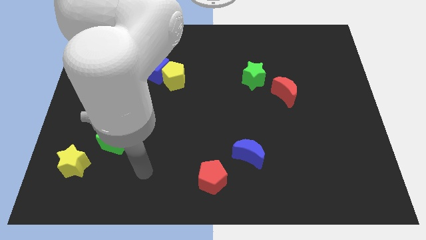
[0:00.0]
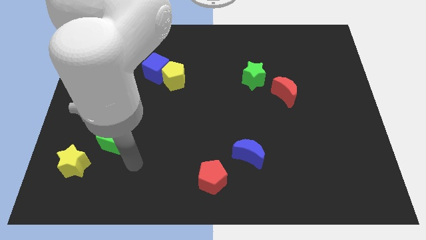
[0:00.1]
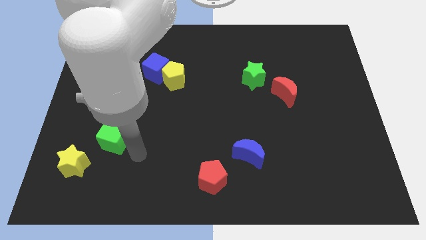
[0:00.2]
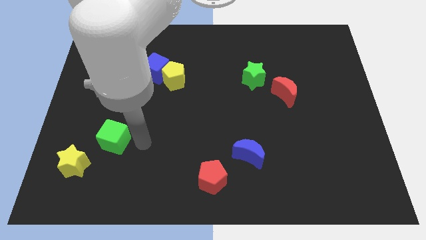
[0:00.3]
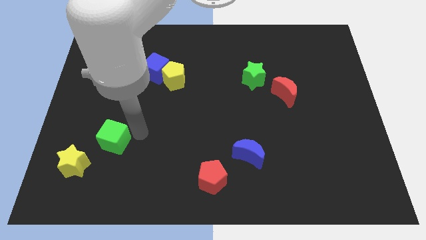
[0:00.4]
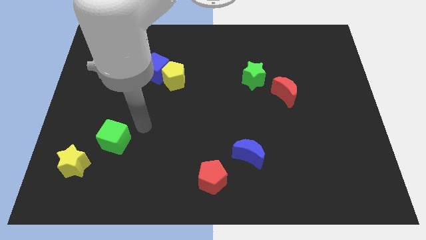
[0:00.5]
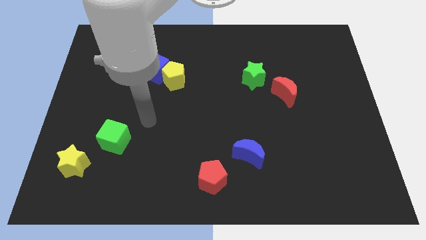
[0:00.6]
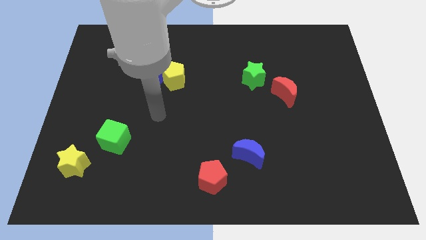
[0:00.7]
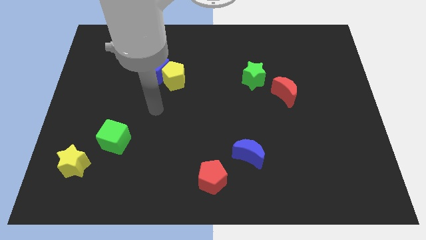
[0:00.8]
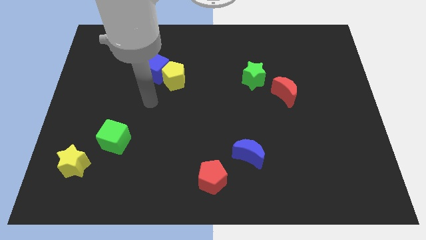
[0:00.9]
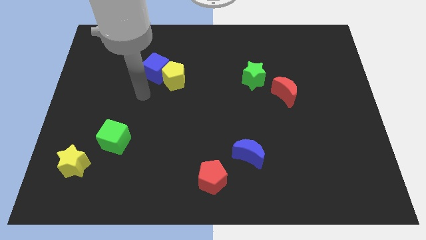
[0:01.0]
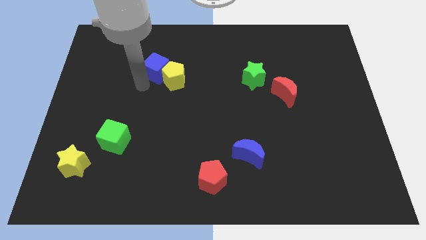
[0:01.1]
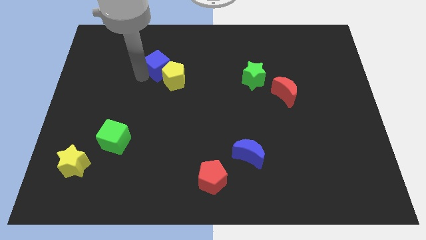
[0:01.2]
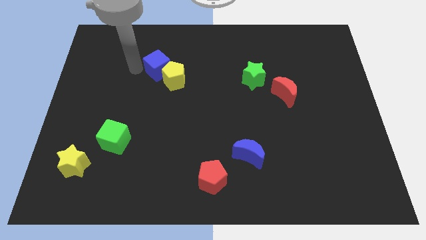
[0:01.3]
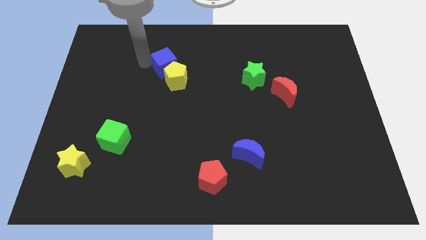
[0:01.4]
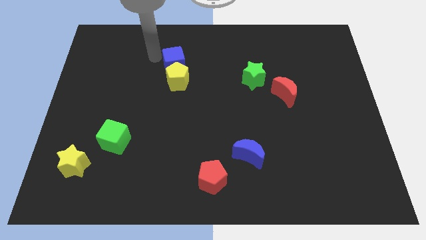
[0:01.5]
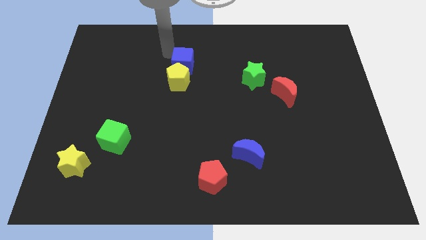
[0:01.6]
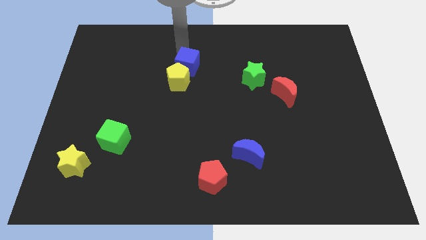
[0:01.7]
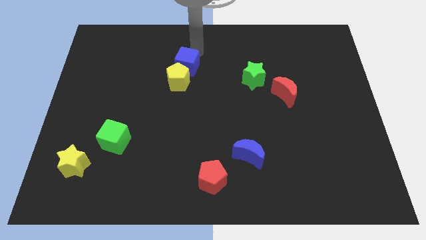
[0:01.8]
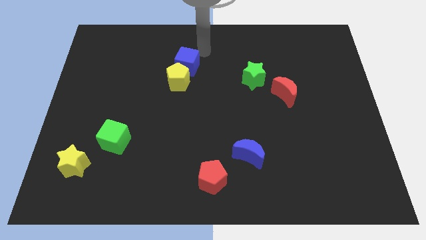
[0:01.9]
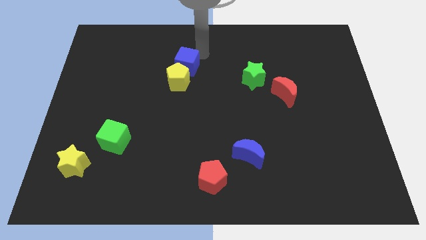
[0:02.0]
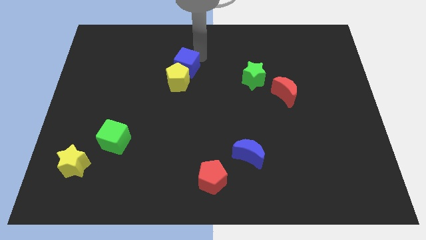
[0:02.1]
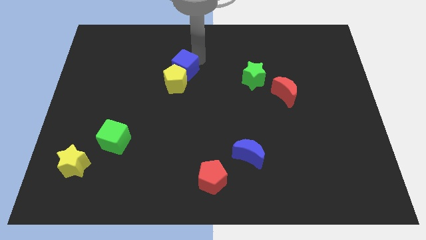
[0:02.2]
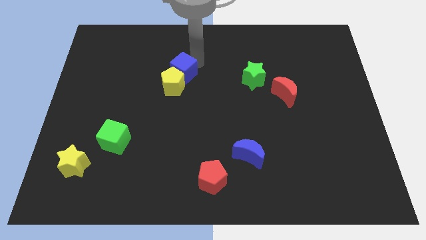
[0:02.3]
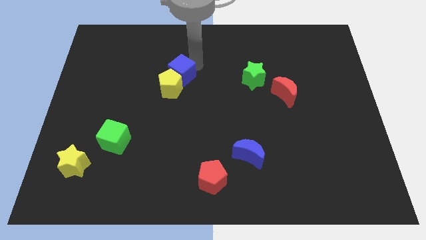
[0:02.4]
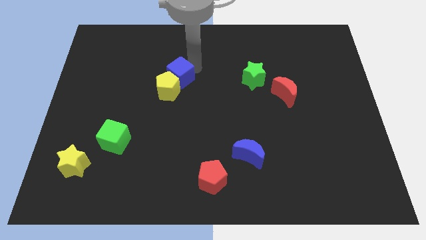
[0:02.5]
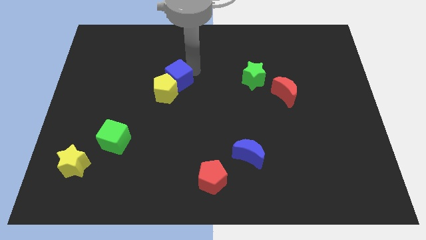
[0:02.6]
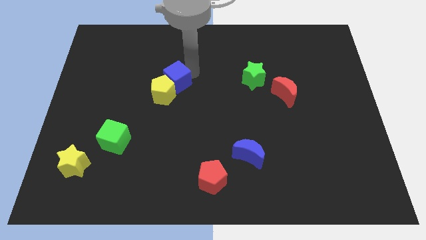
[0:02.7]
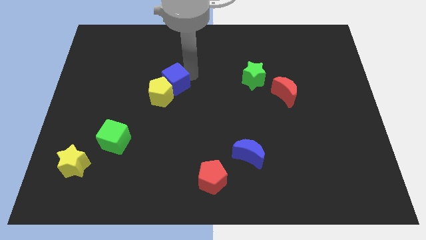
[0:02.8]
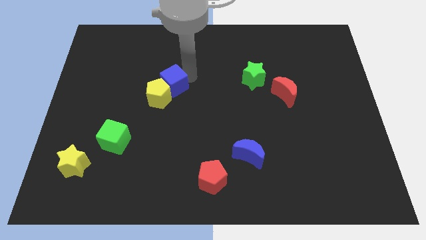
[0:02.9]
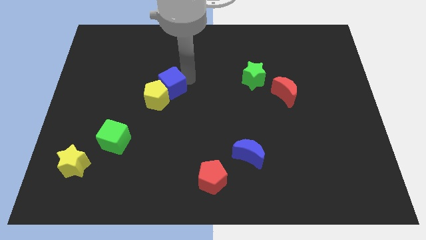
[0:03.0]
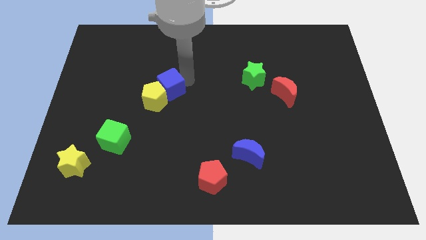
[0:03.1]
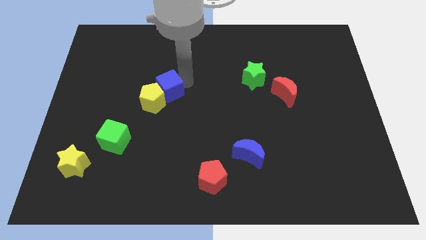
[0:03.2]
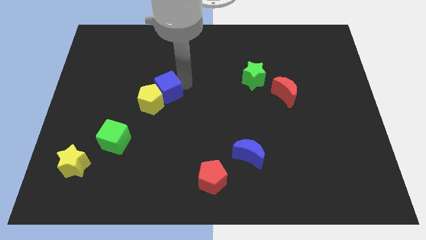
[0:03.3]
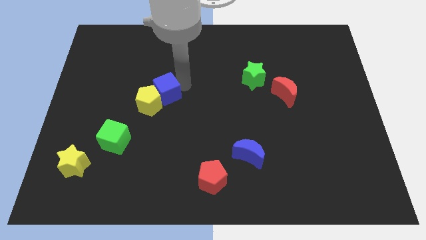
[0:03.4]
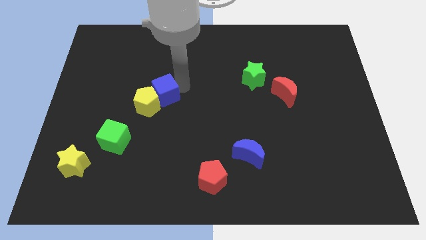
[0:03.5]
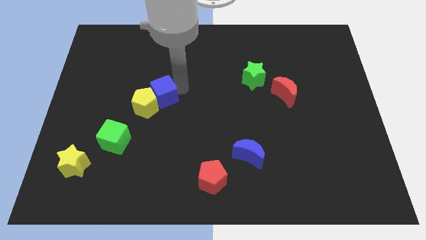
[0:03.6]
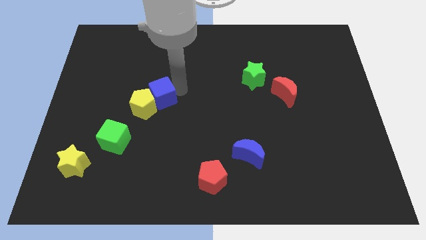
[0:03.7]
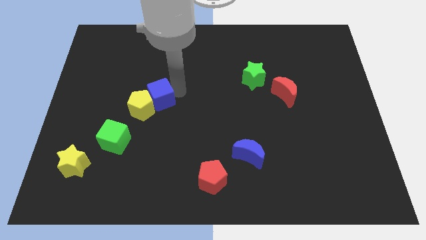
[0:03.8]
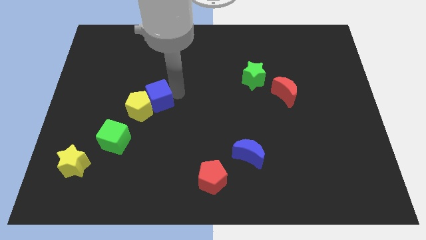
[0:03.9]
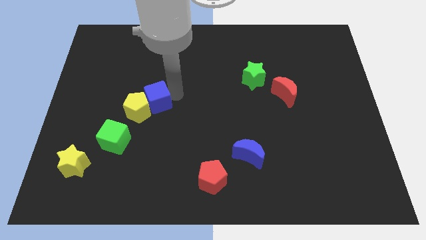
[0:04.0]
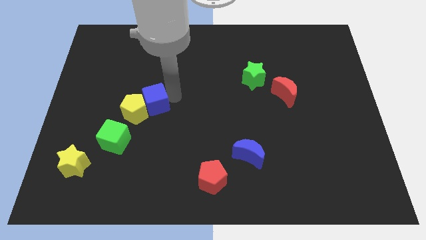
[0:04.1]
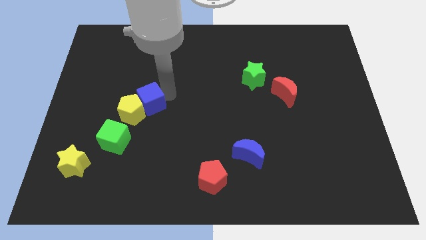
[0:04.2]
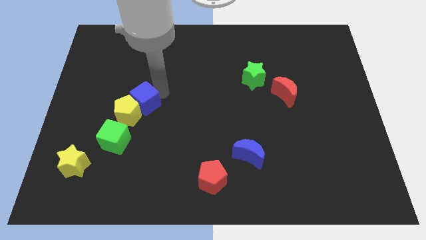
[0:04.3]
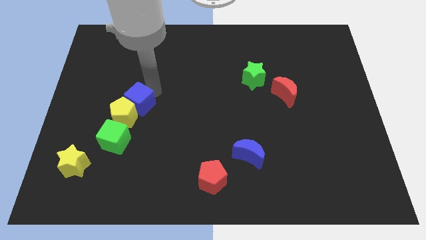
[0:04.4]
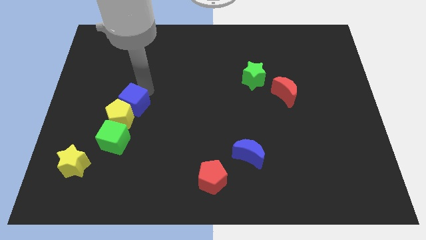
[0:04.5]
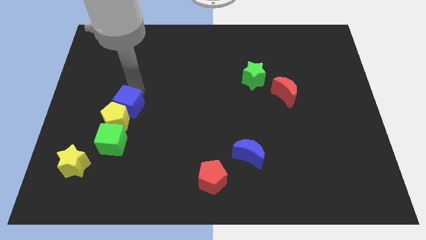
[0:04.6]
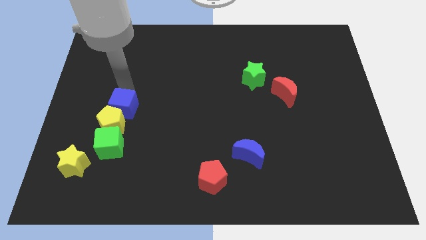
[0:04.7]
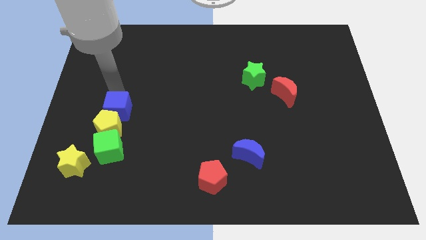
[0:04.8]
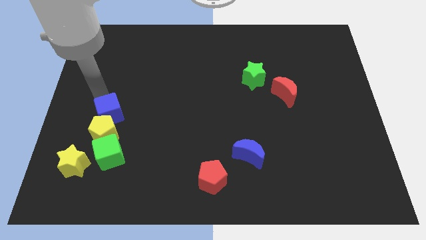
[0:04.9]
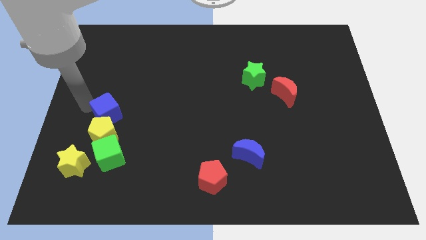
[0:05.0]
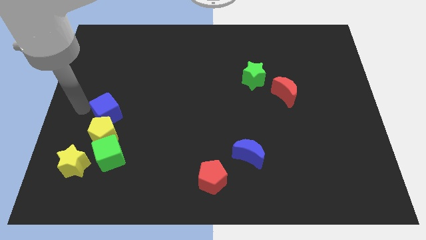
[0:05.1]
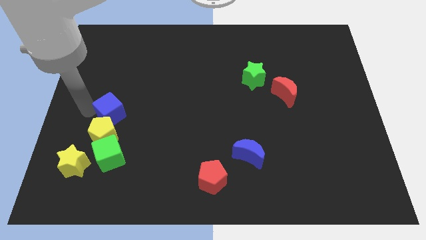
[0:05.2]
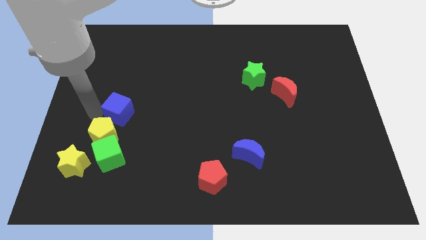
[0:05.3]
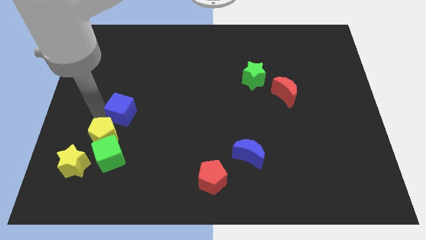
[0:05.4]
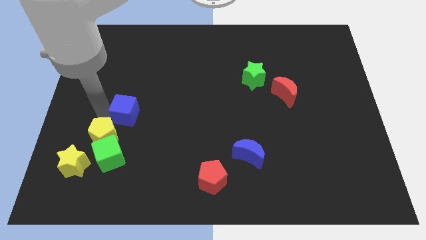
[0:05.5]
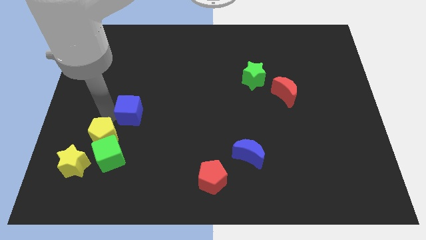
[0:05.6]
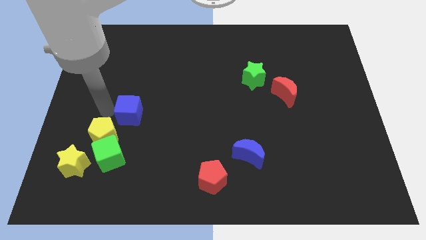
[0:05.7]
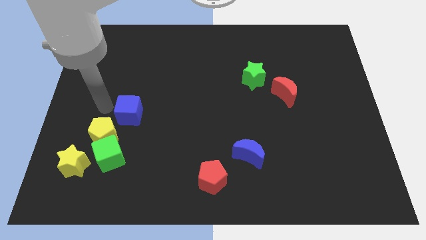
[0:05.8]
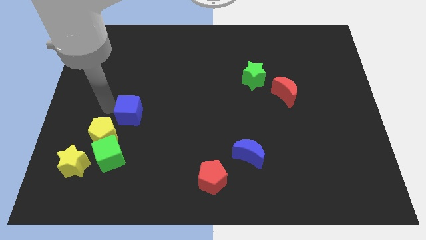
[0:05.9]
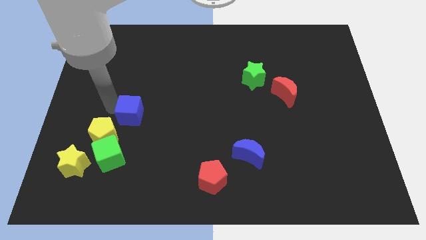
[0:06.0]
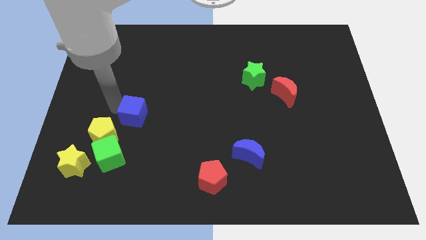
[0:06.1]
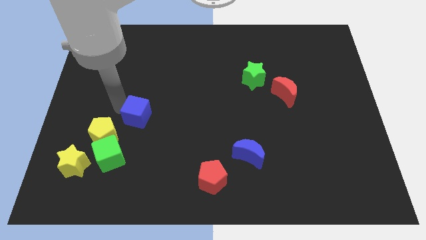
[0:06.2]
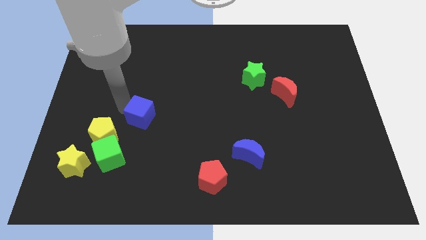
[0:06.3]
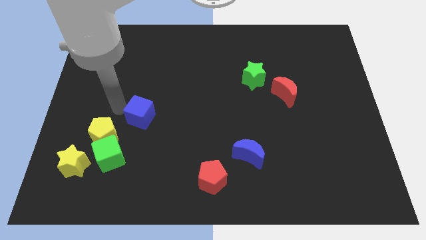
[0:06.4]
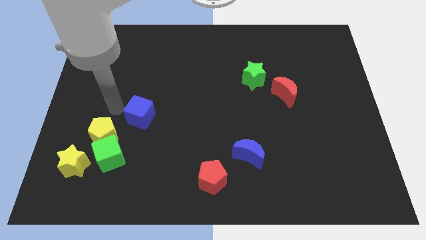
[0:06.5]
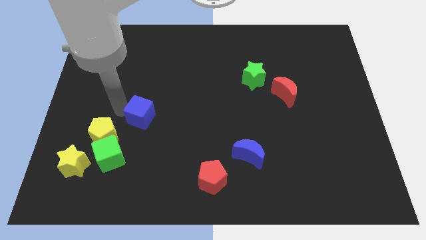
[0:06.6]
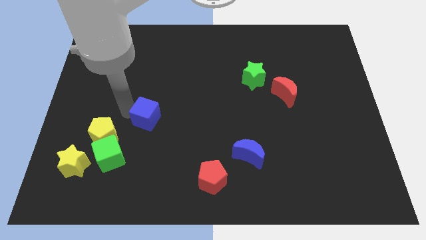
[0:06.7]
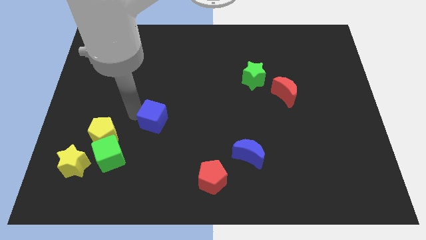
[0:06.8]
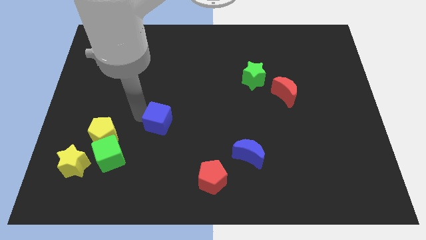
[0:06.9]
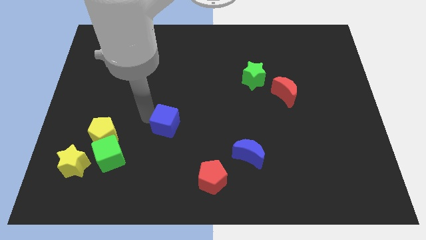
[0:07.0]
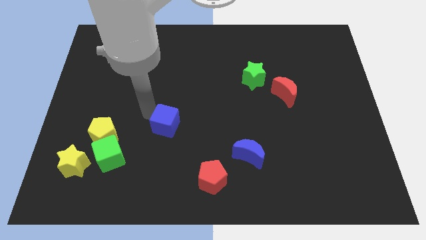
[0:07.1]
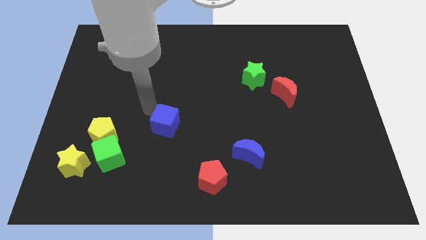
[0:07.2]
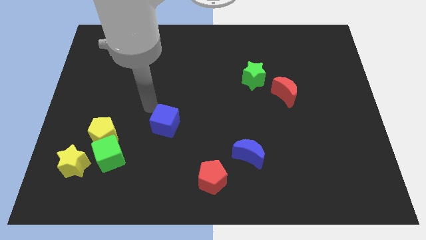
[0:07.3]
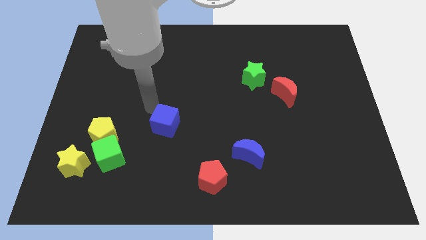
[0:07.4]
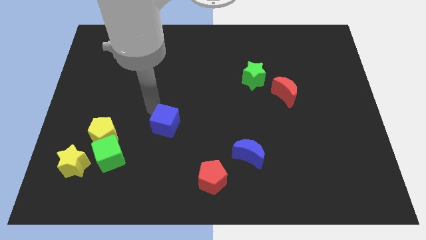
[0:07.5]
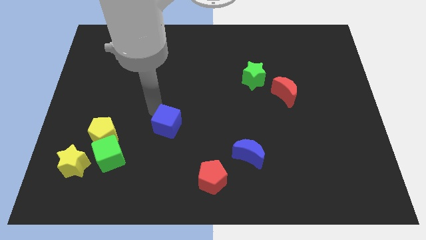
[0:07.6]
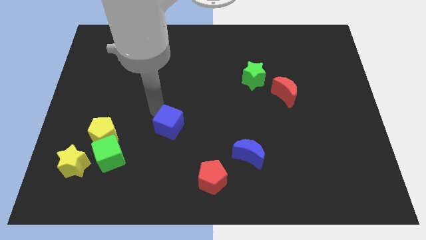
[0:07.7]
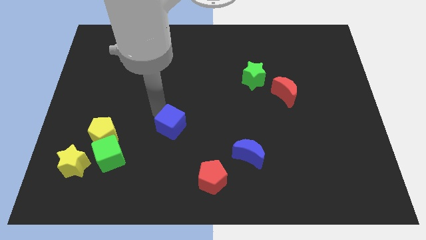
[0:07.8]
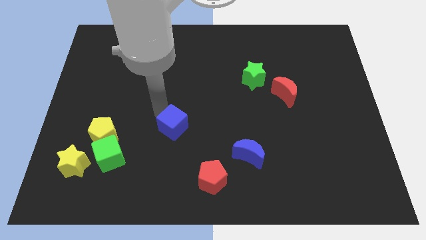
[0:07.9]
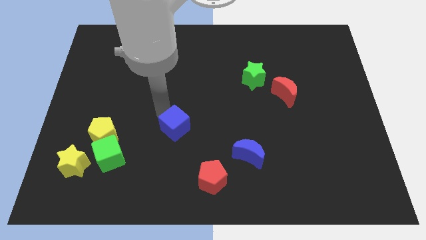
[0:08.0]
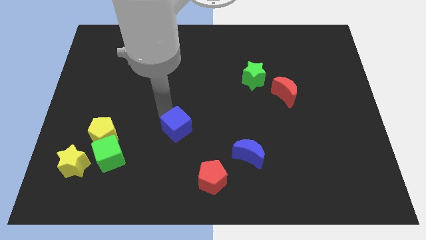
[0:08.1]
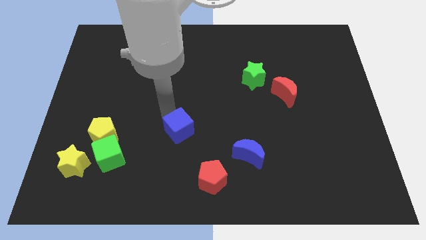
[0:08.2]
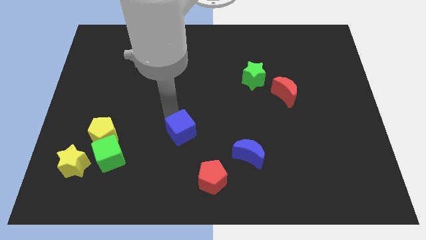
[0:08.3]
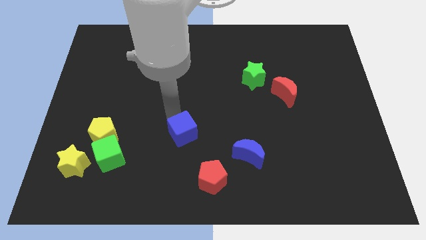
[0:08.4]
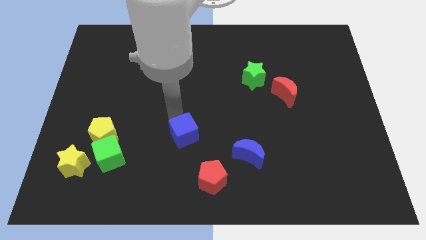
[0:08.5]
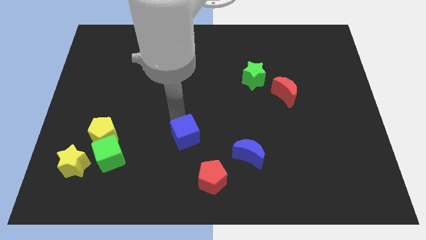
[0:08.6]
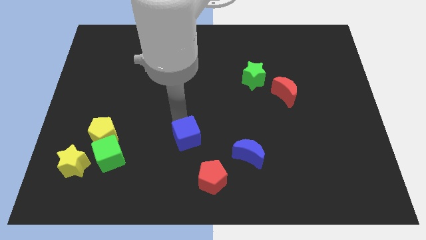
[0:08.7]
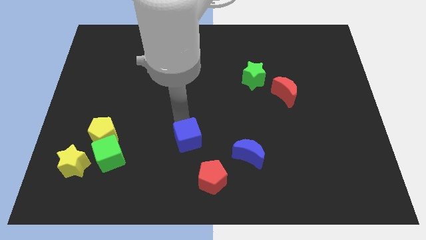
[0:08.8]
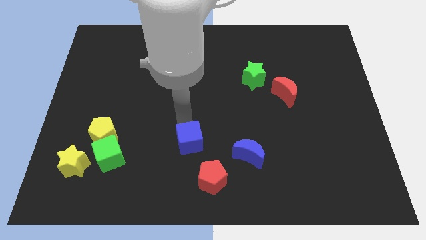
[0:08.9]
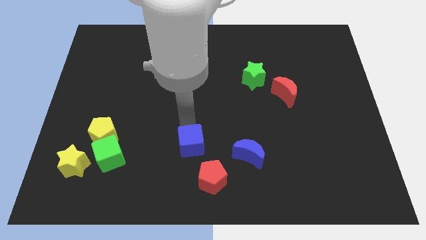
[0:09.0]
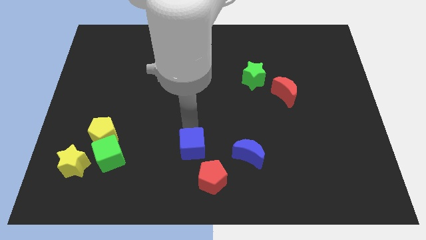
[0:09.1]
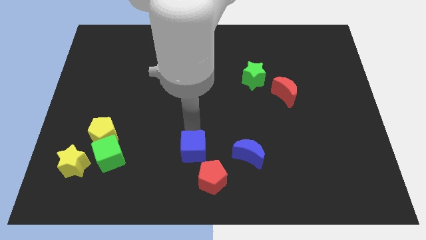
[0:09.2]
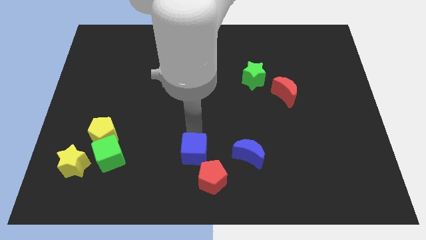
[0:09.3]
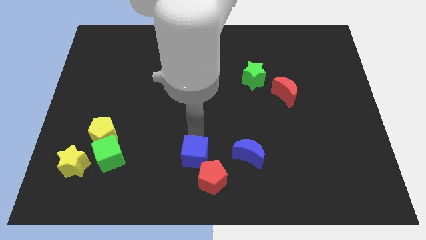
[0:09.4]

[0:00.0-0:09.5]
put the blue cube to the bottom
